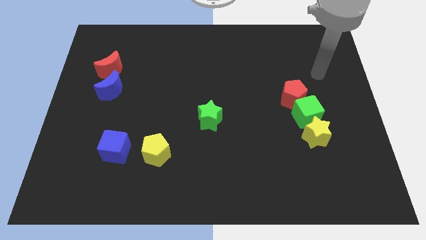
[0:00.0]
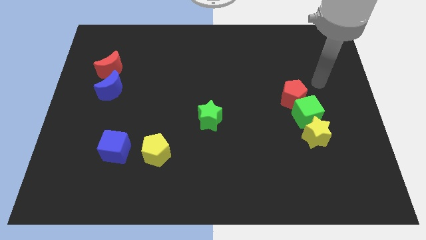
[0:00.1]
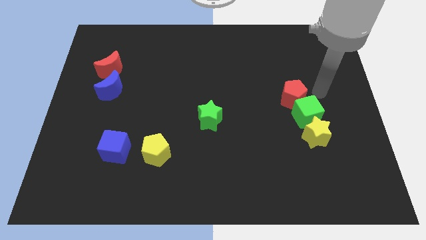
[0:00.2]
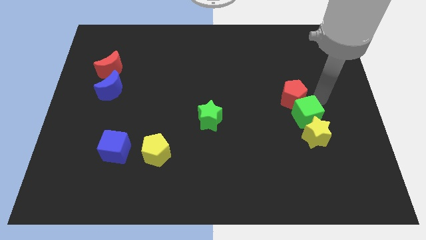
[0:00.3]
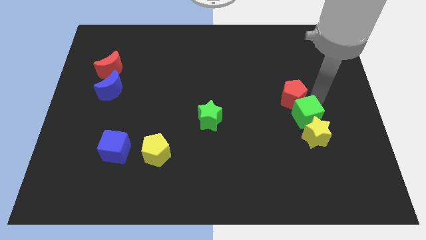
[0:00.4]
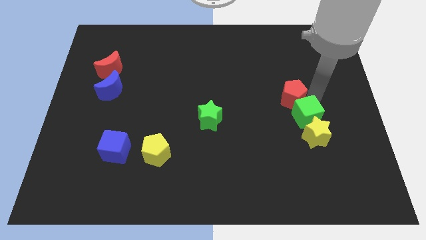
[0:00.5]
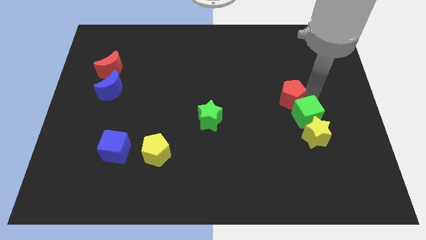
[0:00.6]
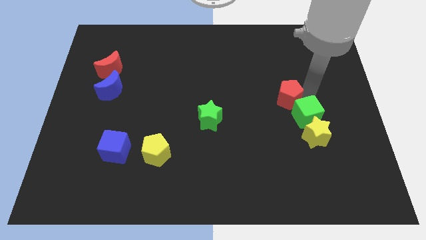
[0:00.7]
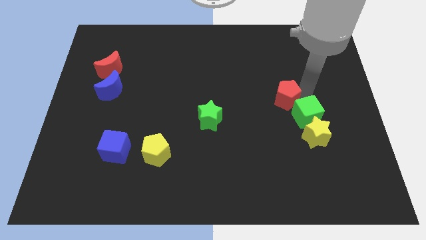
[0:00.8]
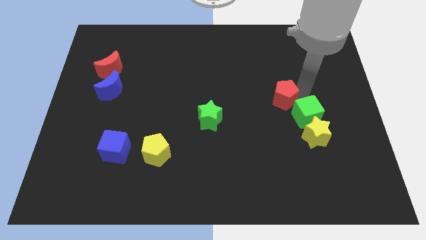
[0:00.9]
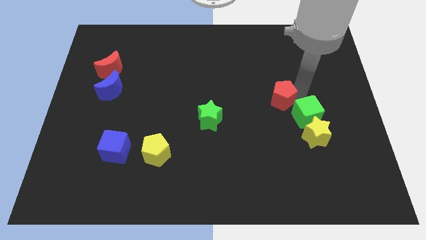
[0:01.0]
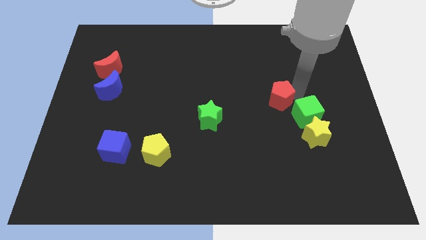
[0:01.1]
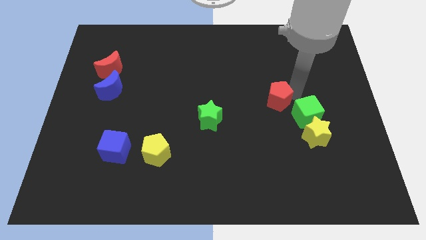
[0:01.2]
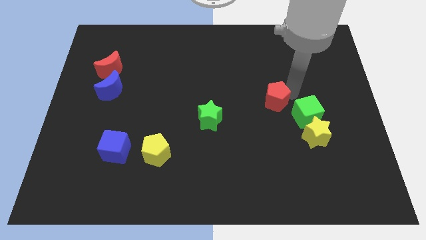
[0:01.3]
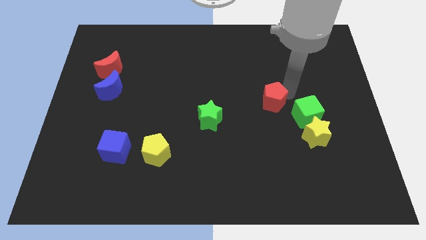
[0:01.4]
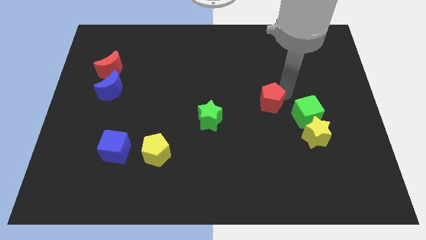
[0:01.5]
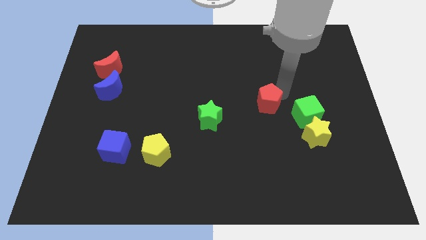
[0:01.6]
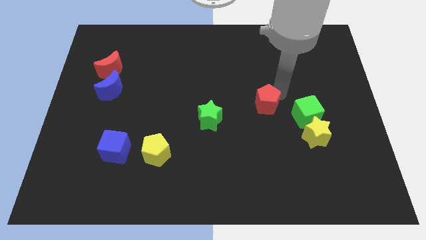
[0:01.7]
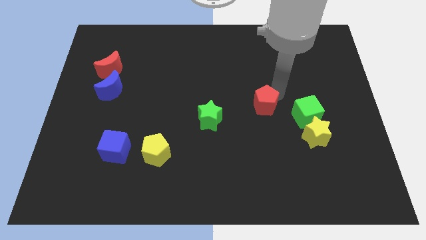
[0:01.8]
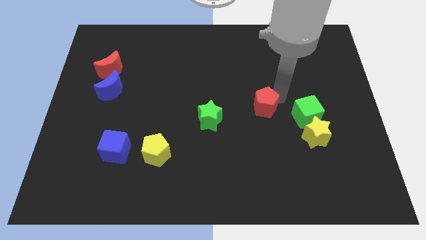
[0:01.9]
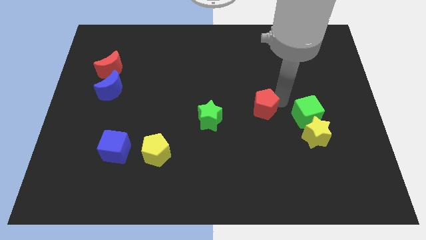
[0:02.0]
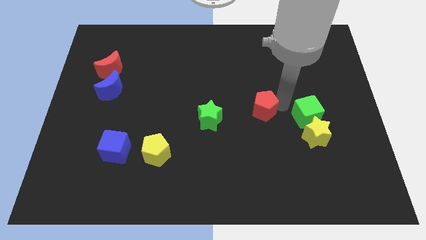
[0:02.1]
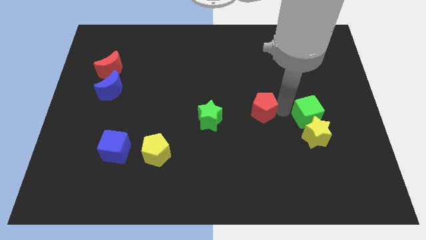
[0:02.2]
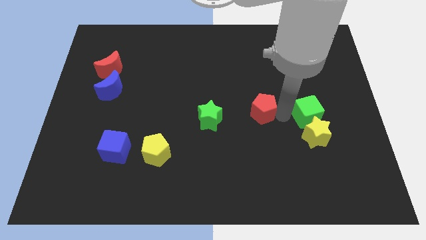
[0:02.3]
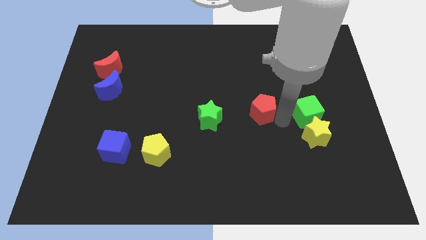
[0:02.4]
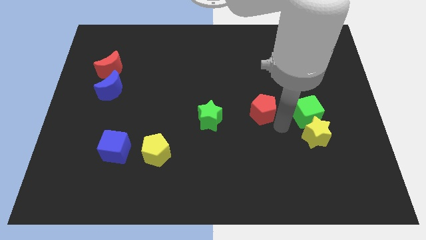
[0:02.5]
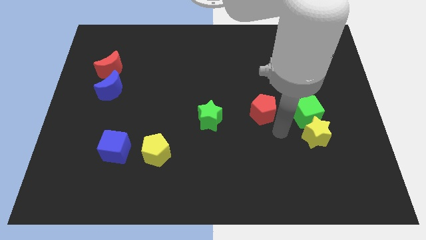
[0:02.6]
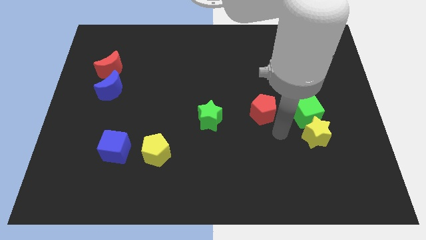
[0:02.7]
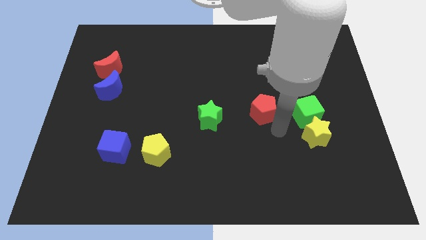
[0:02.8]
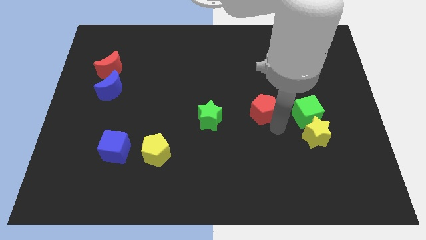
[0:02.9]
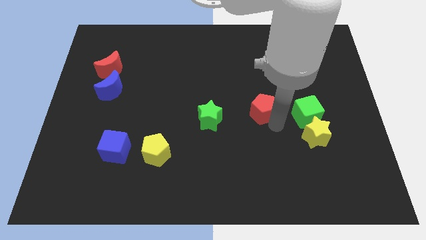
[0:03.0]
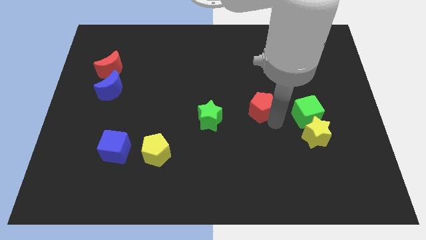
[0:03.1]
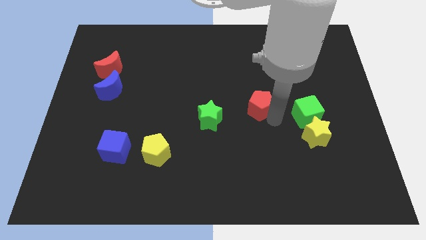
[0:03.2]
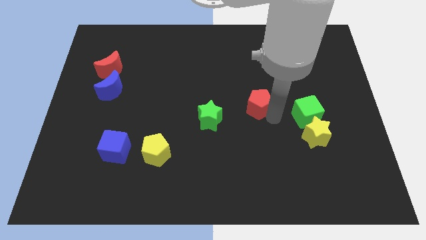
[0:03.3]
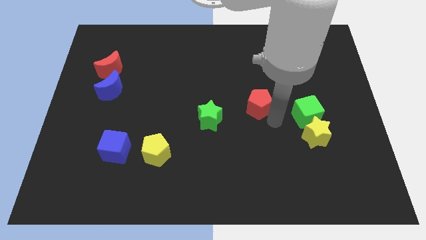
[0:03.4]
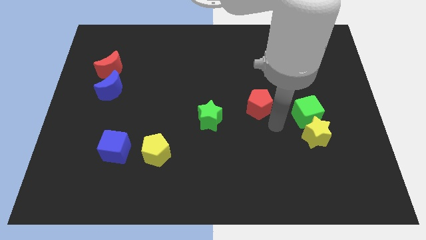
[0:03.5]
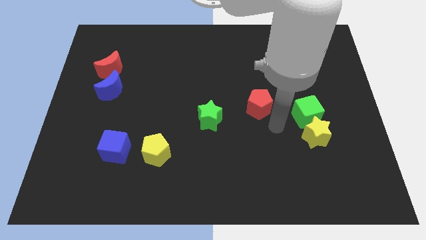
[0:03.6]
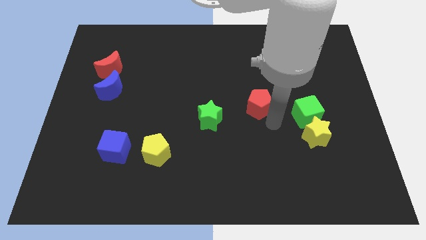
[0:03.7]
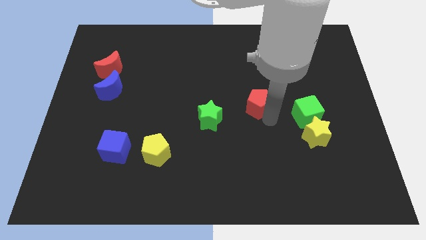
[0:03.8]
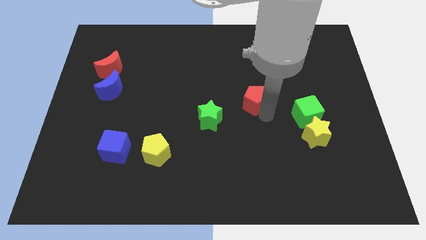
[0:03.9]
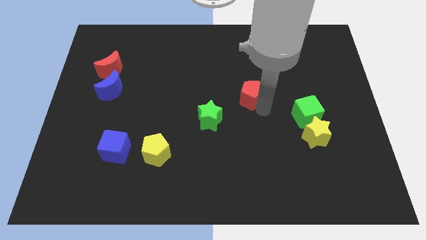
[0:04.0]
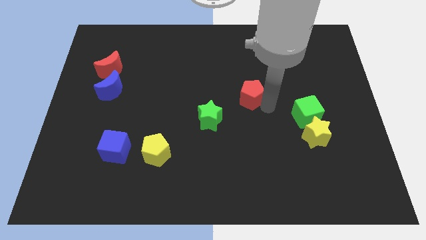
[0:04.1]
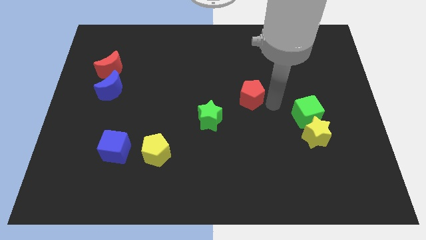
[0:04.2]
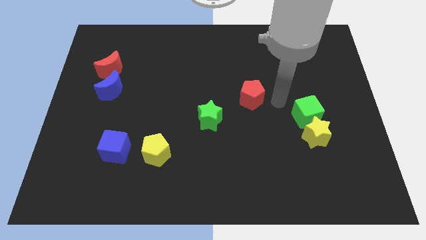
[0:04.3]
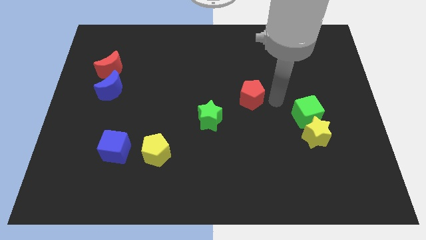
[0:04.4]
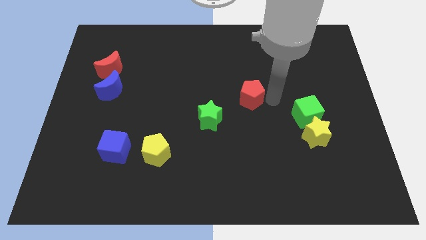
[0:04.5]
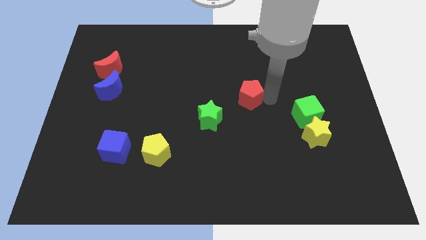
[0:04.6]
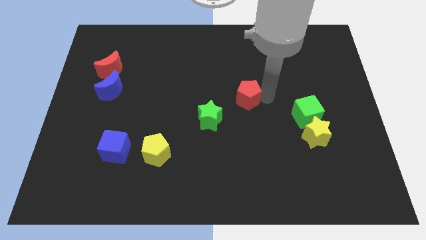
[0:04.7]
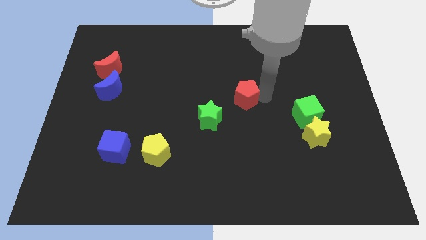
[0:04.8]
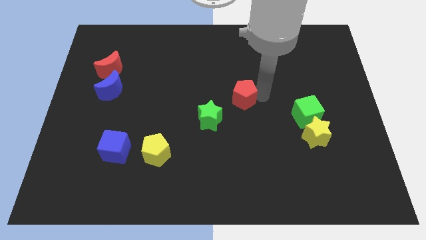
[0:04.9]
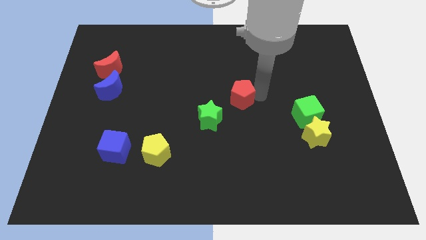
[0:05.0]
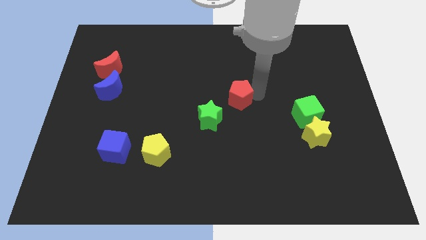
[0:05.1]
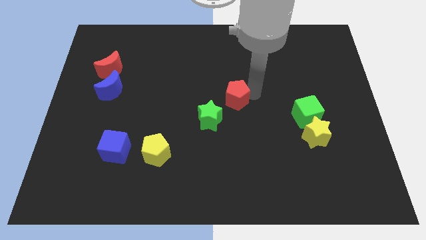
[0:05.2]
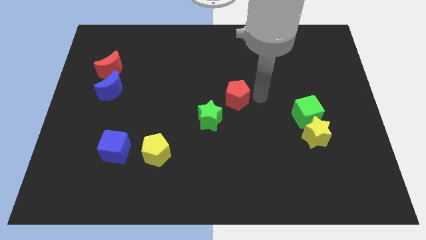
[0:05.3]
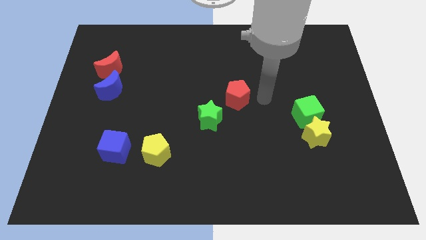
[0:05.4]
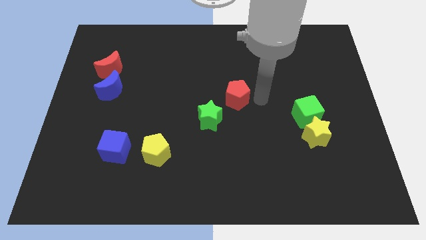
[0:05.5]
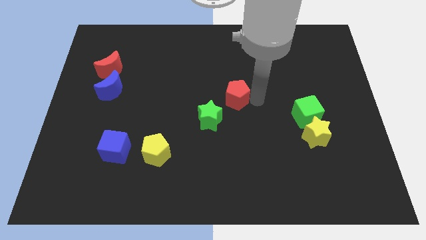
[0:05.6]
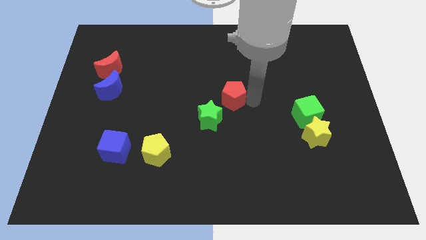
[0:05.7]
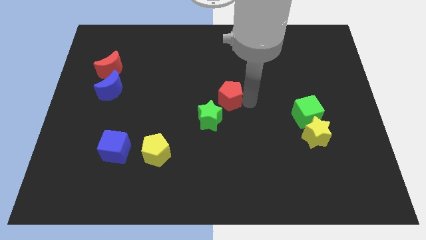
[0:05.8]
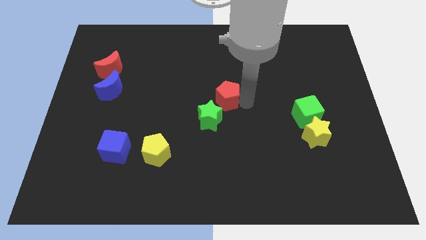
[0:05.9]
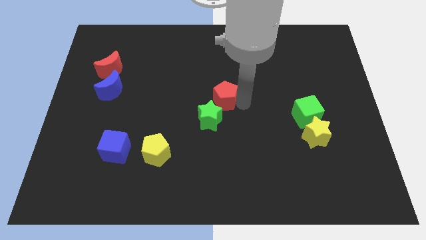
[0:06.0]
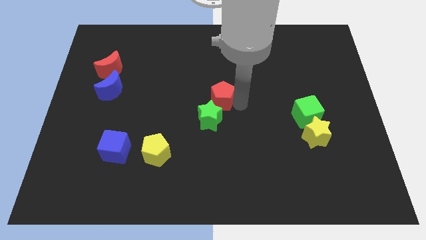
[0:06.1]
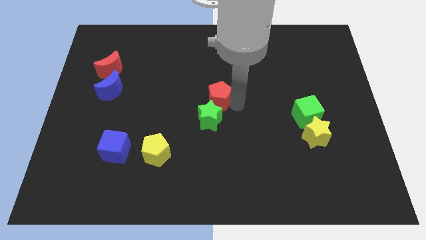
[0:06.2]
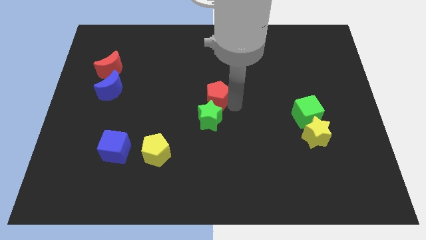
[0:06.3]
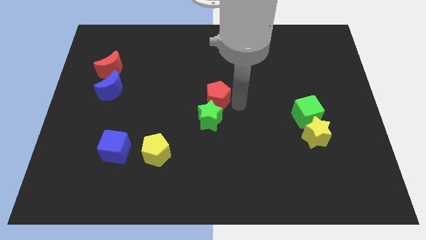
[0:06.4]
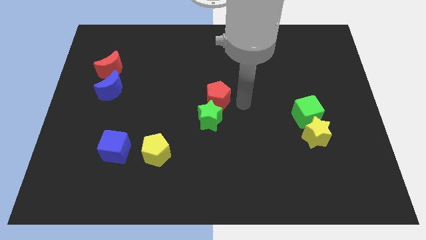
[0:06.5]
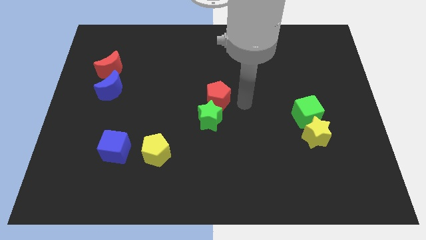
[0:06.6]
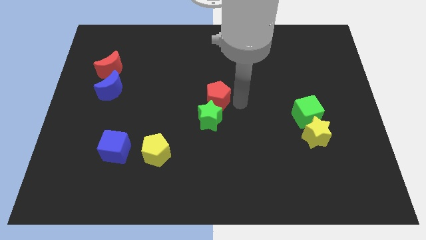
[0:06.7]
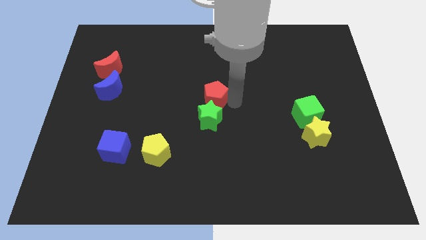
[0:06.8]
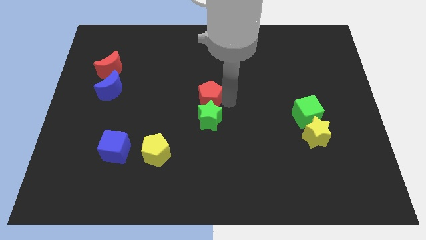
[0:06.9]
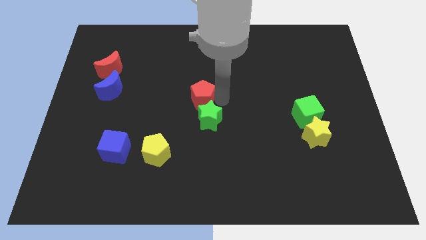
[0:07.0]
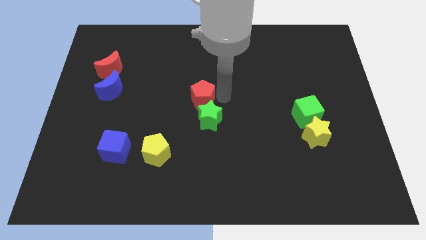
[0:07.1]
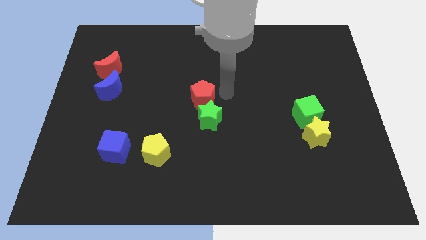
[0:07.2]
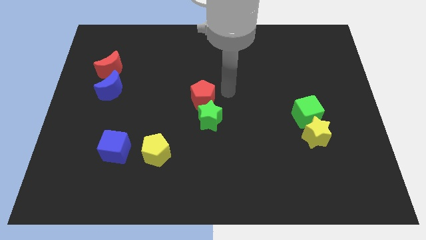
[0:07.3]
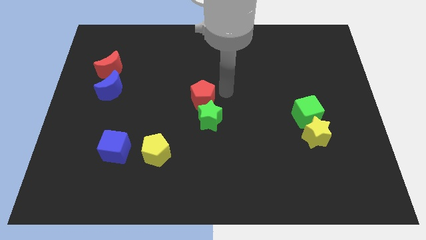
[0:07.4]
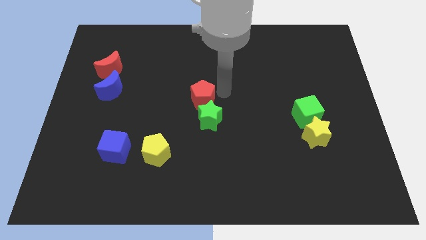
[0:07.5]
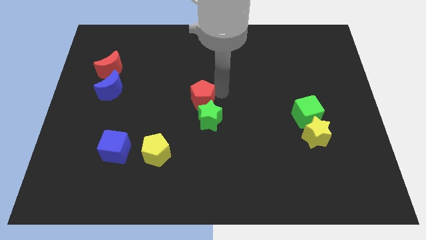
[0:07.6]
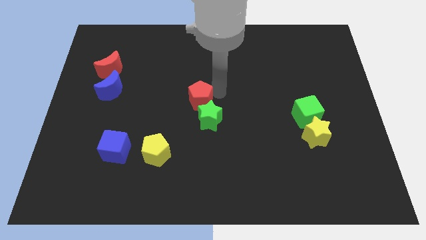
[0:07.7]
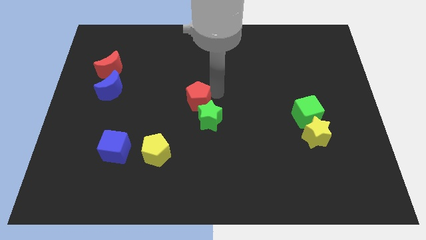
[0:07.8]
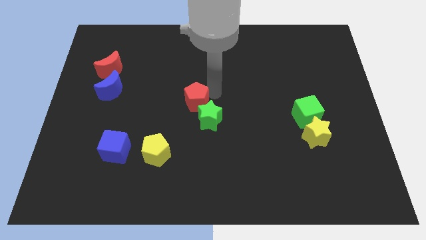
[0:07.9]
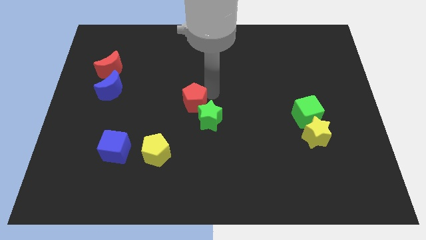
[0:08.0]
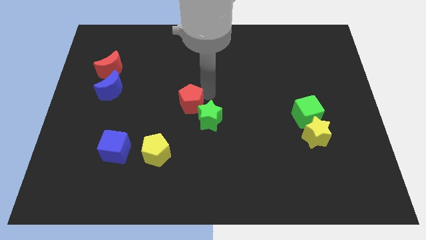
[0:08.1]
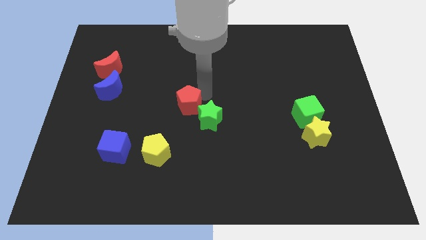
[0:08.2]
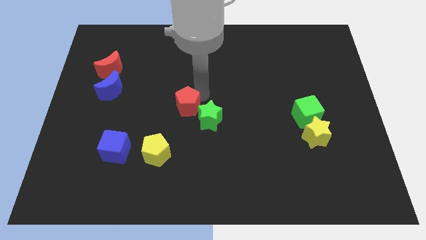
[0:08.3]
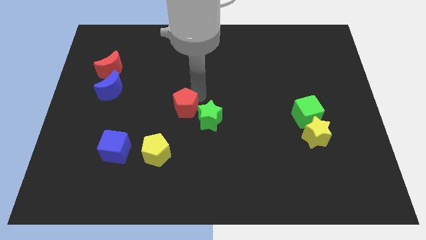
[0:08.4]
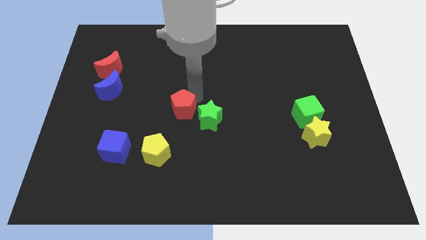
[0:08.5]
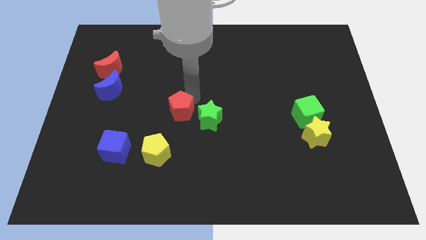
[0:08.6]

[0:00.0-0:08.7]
slide the red pentagon to the top of the yellow pentagon
